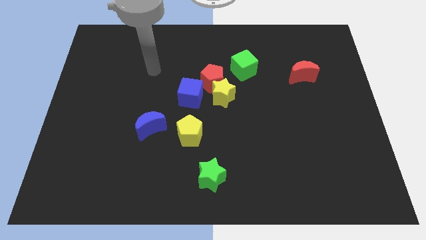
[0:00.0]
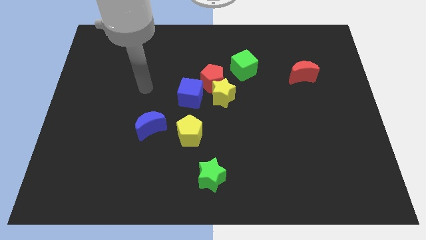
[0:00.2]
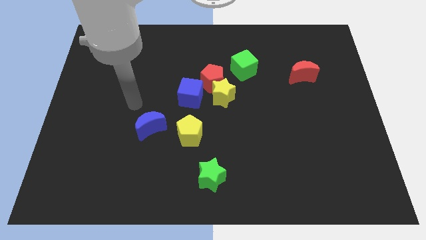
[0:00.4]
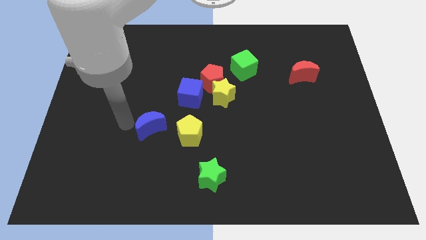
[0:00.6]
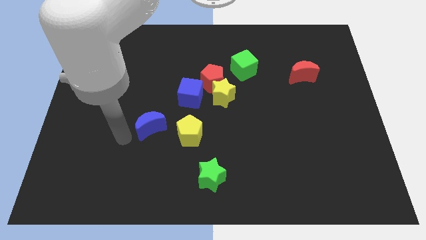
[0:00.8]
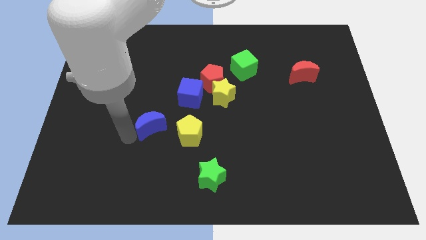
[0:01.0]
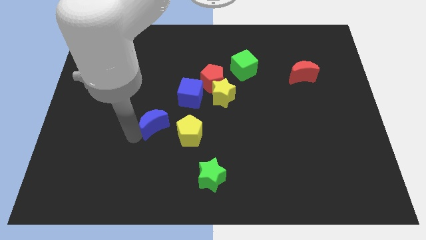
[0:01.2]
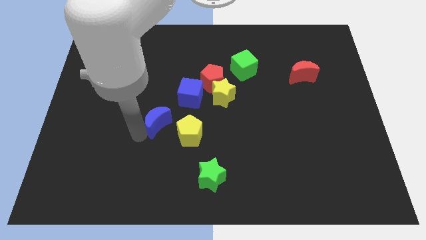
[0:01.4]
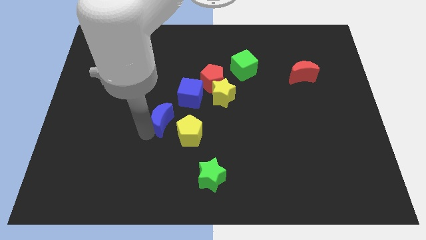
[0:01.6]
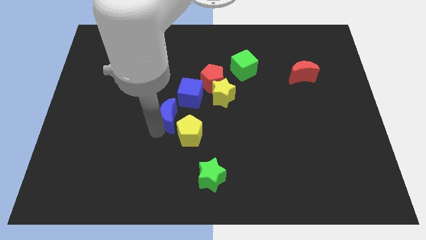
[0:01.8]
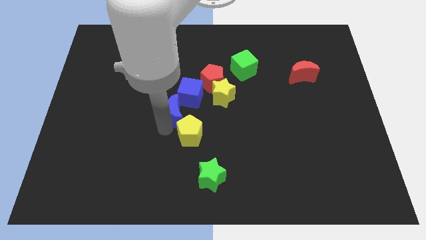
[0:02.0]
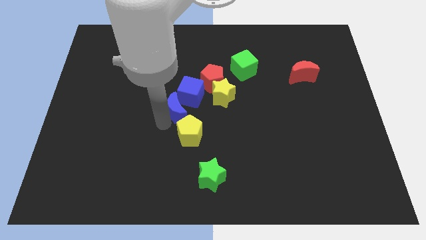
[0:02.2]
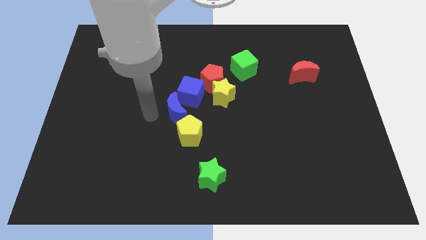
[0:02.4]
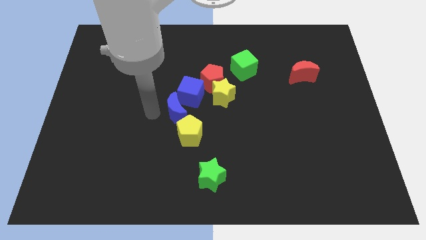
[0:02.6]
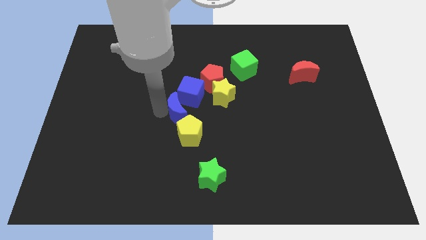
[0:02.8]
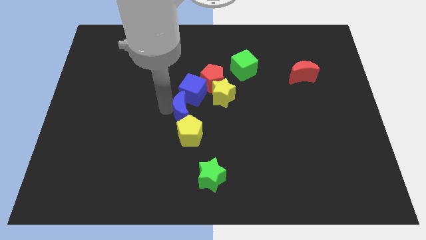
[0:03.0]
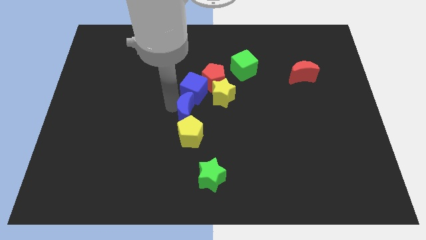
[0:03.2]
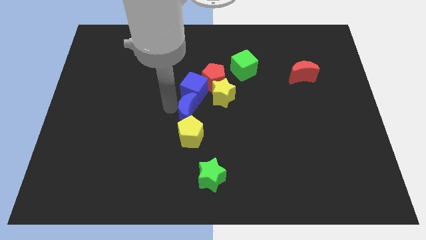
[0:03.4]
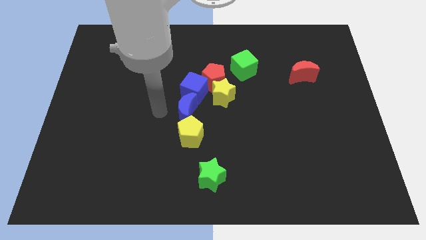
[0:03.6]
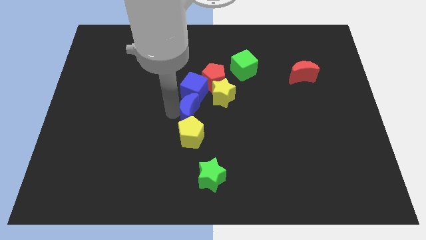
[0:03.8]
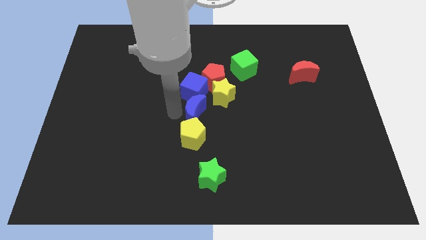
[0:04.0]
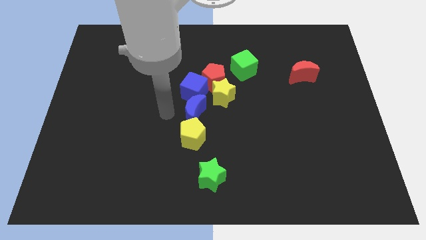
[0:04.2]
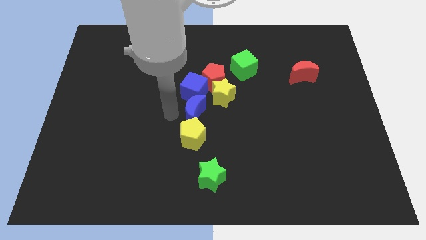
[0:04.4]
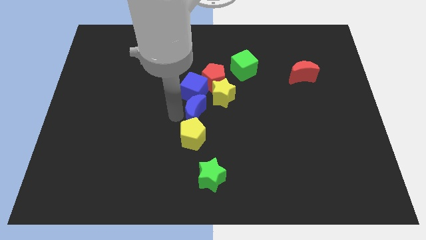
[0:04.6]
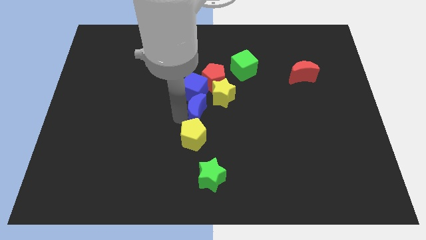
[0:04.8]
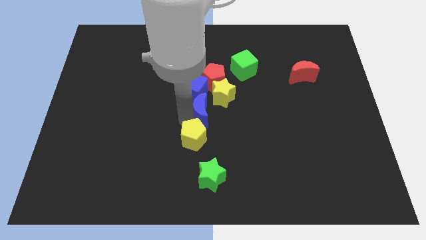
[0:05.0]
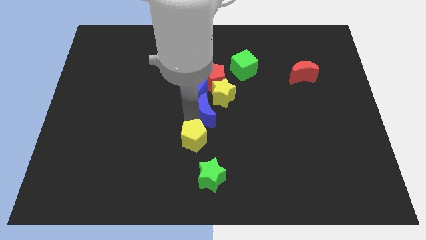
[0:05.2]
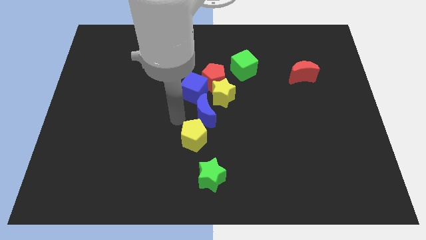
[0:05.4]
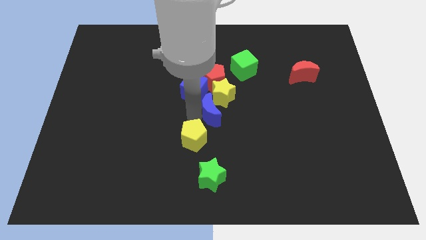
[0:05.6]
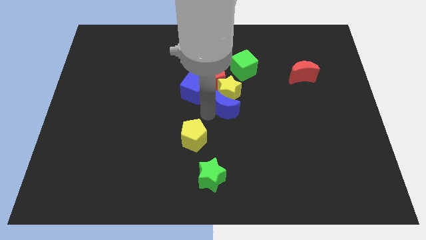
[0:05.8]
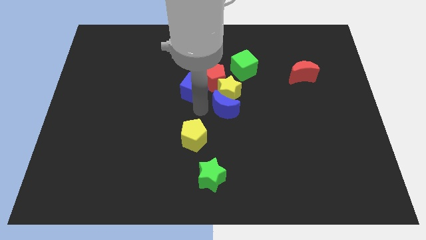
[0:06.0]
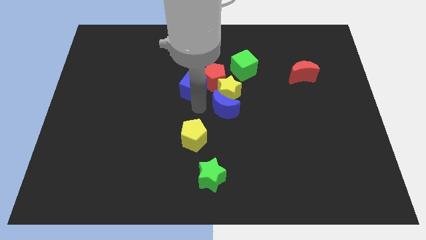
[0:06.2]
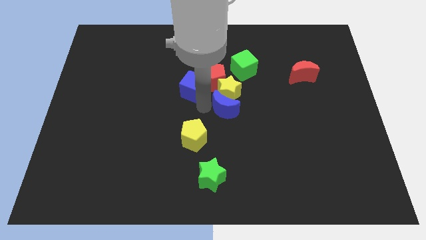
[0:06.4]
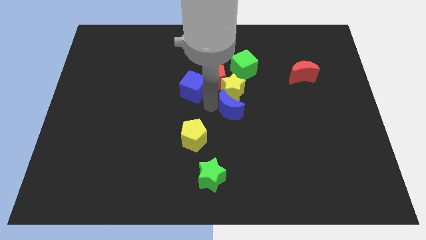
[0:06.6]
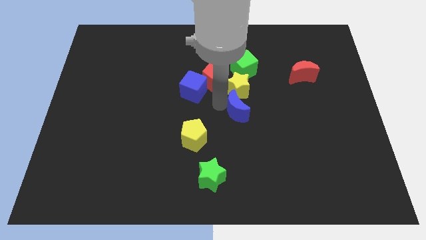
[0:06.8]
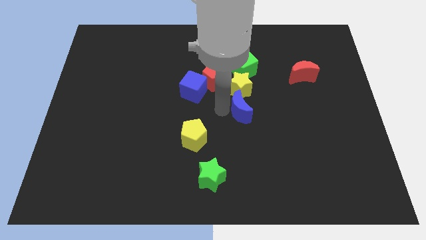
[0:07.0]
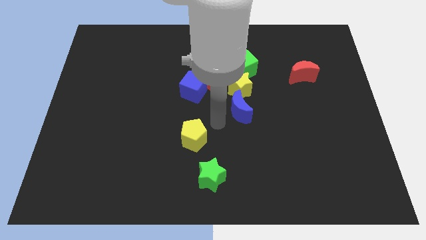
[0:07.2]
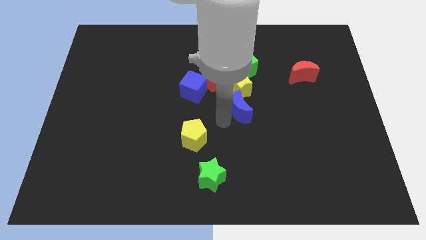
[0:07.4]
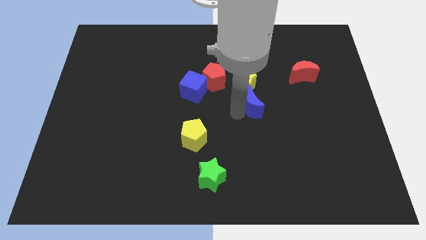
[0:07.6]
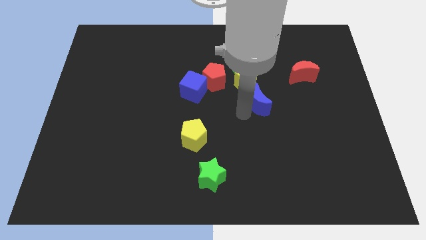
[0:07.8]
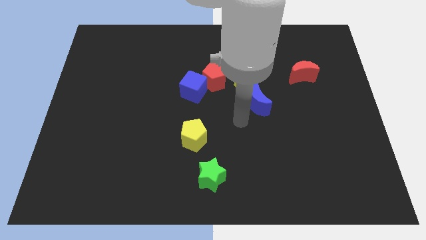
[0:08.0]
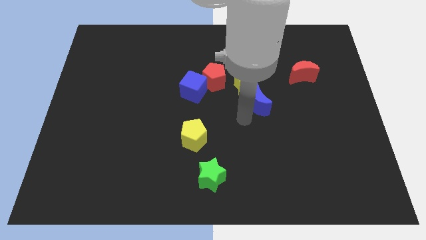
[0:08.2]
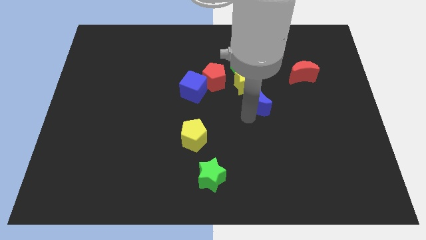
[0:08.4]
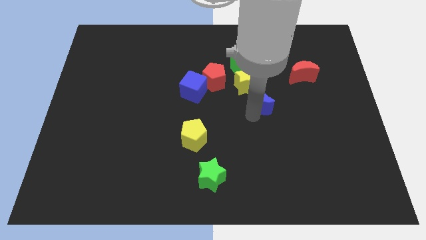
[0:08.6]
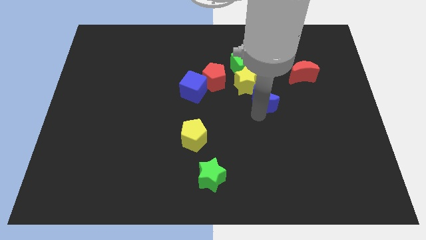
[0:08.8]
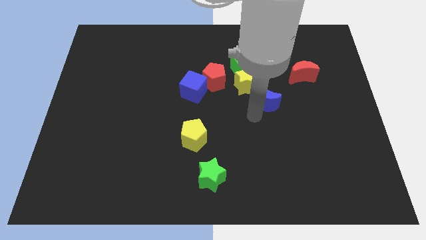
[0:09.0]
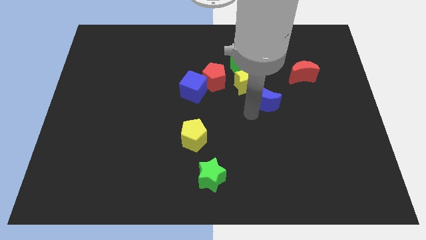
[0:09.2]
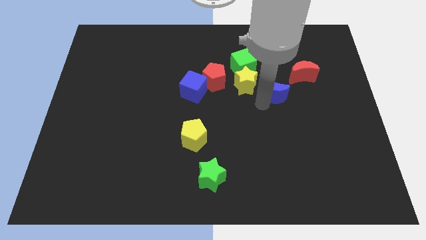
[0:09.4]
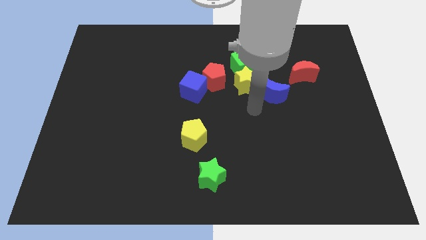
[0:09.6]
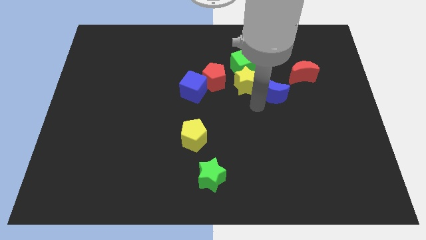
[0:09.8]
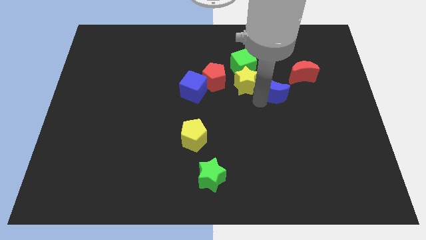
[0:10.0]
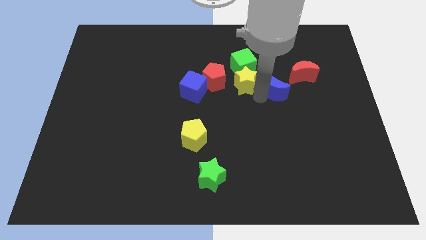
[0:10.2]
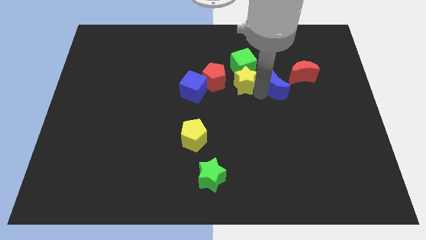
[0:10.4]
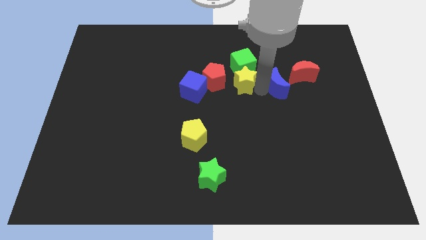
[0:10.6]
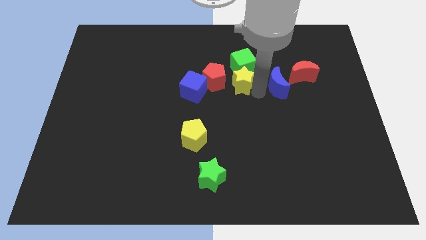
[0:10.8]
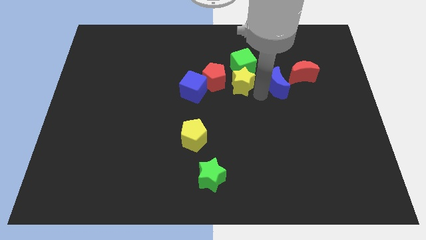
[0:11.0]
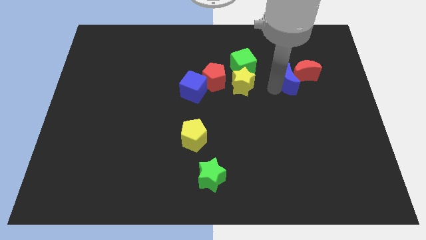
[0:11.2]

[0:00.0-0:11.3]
move the blue moon next to the red moon

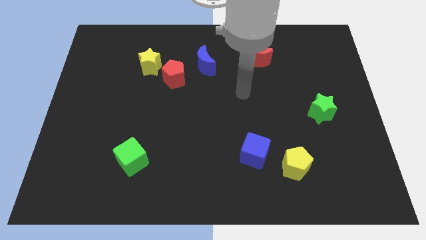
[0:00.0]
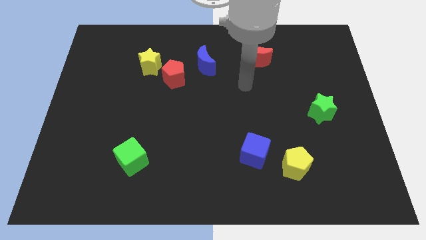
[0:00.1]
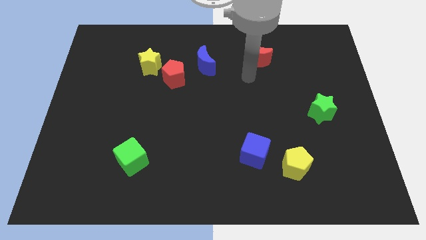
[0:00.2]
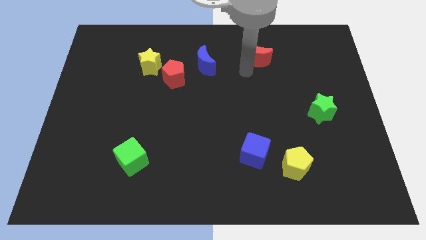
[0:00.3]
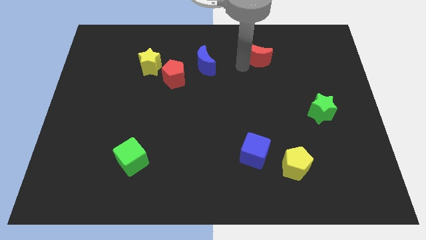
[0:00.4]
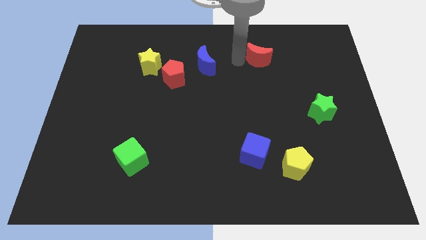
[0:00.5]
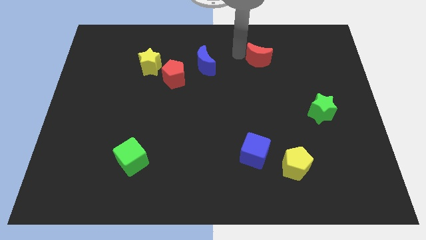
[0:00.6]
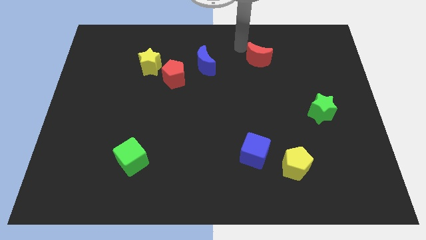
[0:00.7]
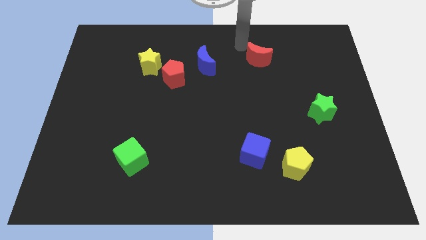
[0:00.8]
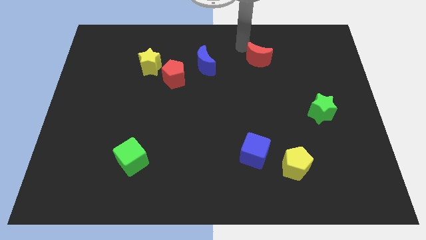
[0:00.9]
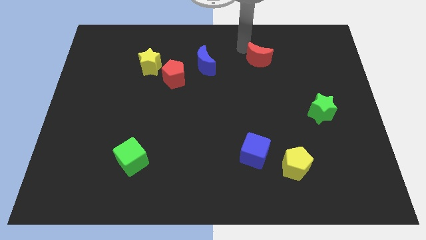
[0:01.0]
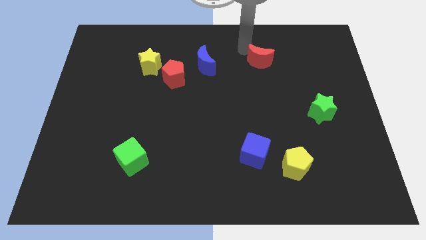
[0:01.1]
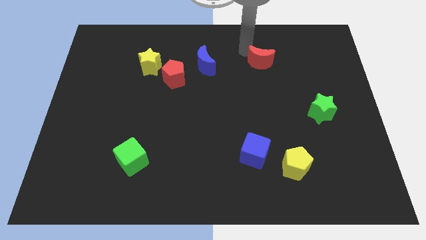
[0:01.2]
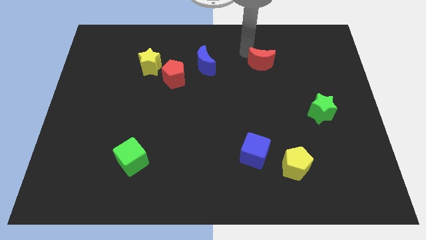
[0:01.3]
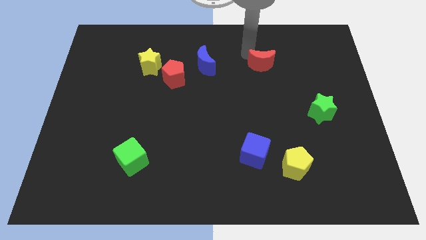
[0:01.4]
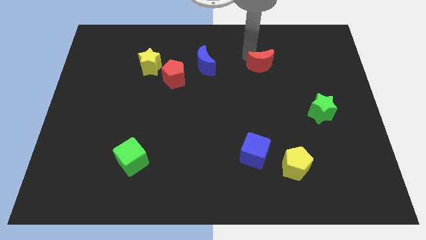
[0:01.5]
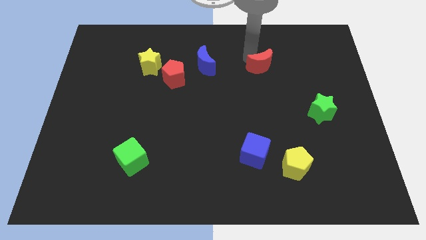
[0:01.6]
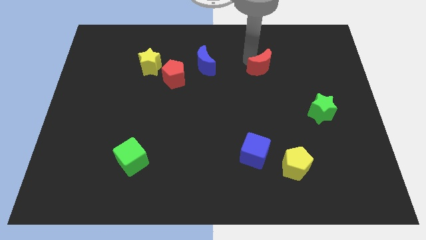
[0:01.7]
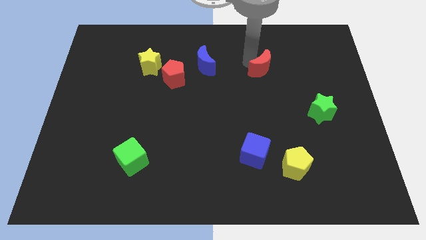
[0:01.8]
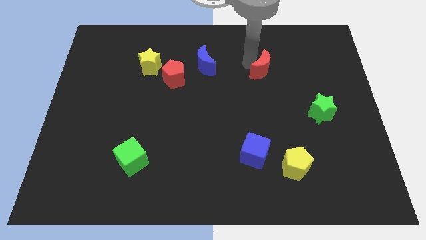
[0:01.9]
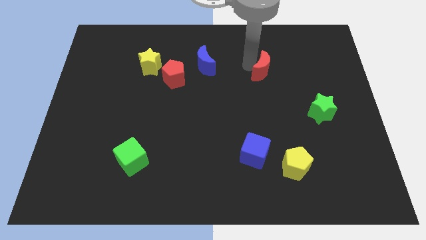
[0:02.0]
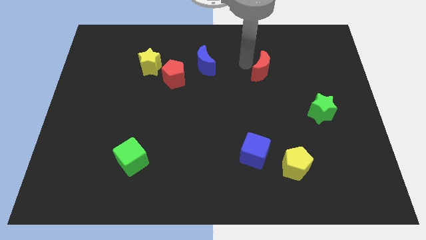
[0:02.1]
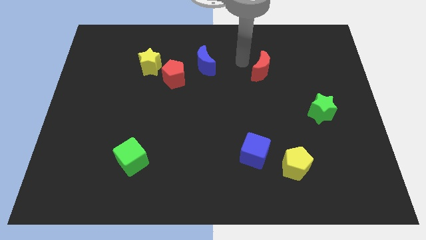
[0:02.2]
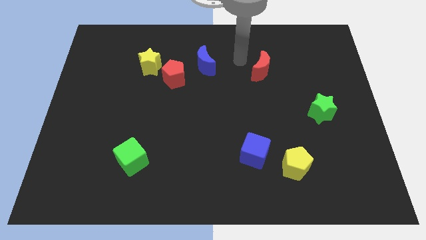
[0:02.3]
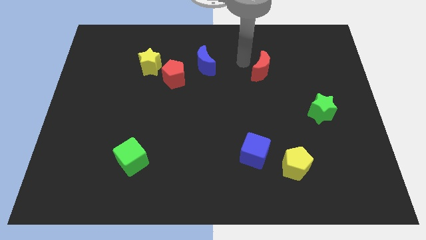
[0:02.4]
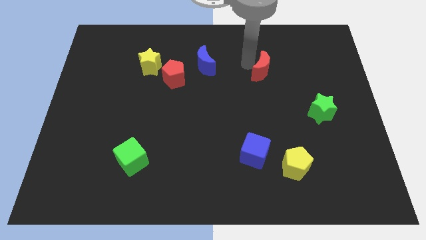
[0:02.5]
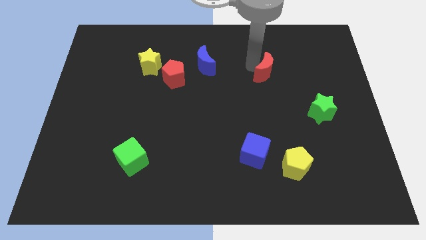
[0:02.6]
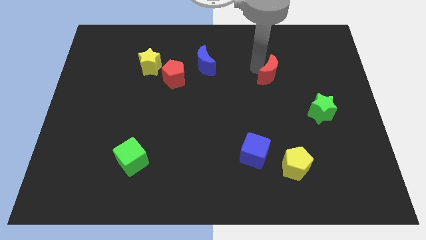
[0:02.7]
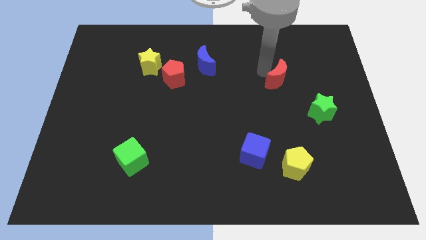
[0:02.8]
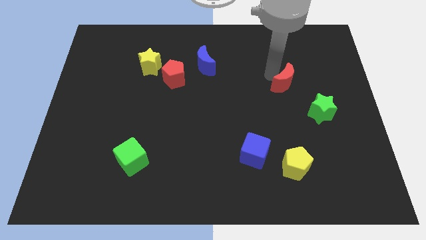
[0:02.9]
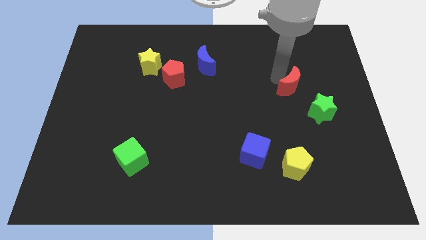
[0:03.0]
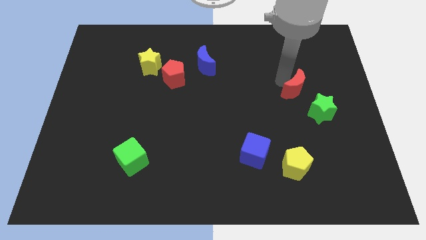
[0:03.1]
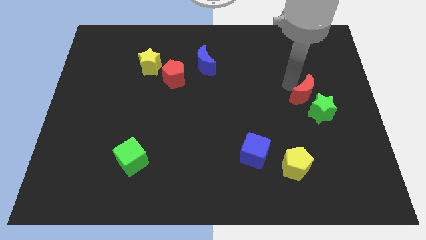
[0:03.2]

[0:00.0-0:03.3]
push the red moon towards the green star
